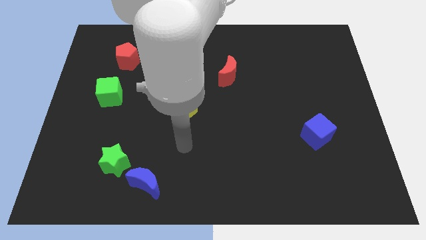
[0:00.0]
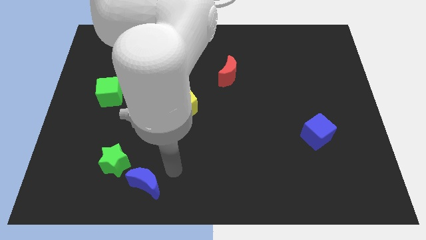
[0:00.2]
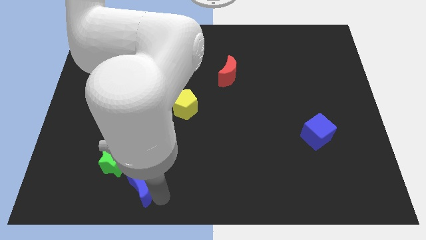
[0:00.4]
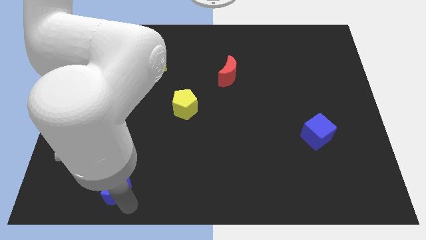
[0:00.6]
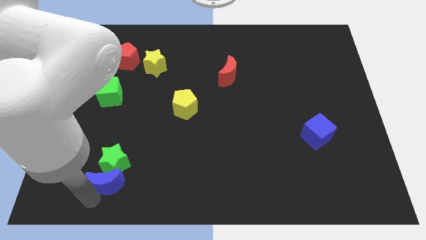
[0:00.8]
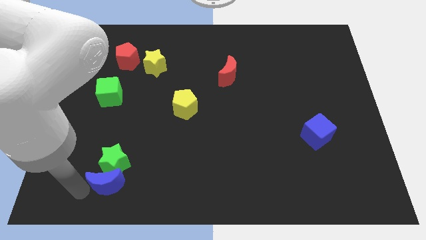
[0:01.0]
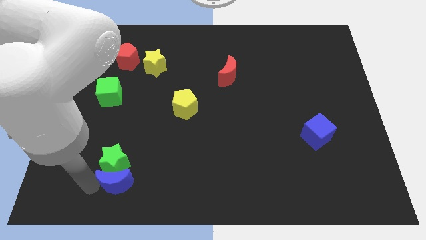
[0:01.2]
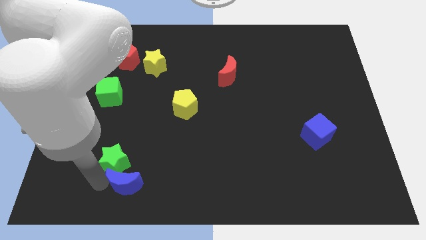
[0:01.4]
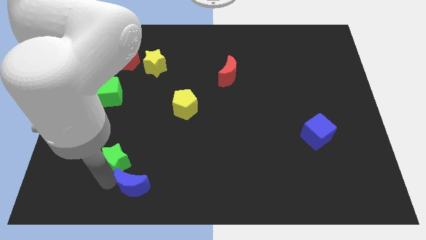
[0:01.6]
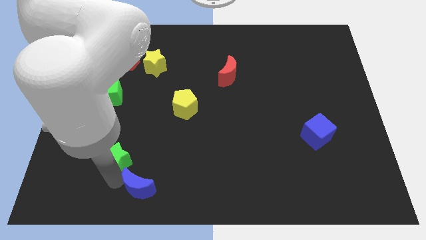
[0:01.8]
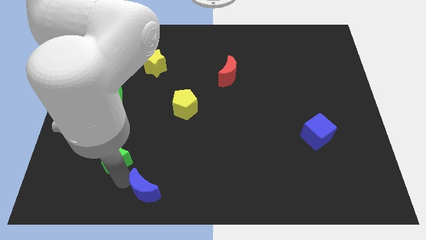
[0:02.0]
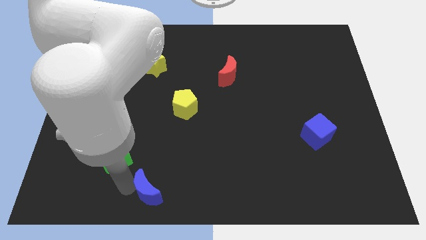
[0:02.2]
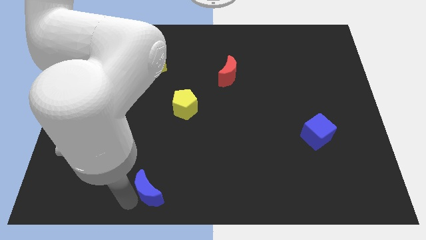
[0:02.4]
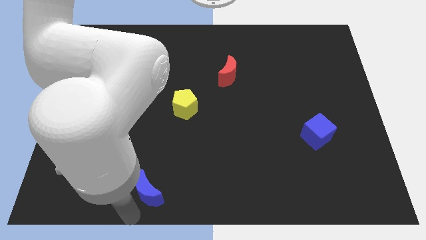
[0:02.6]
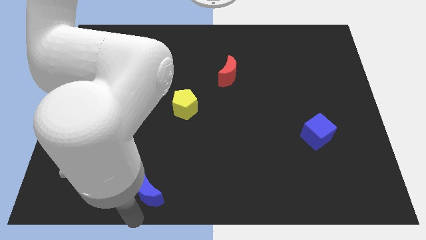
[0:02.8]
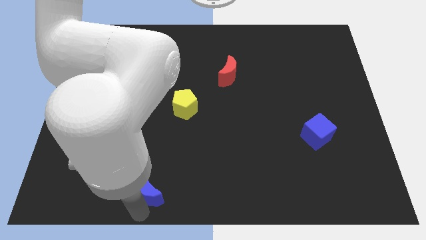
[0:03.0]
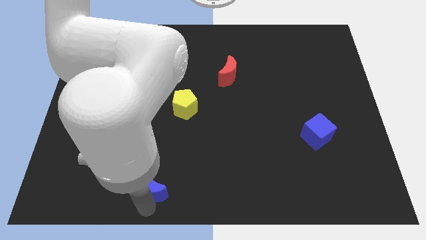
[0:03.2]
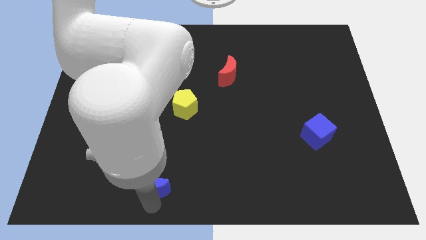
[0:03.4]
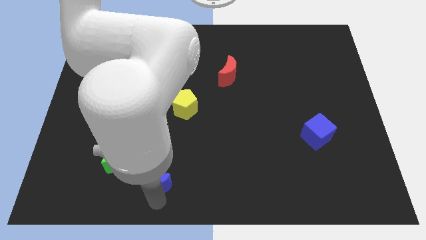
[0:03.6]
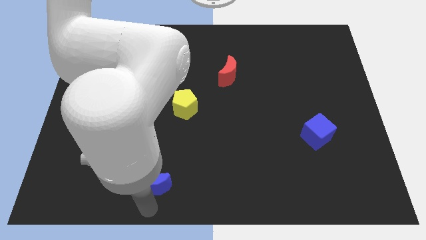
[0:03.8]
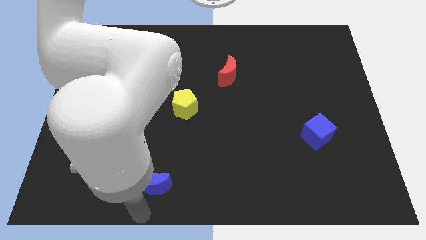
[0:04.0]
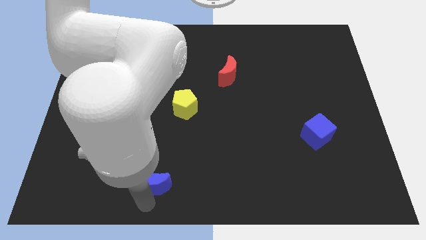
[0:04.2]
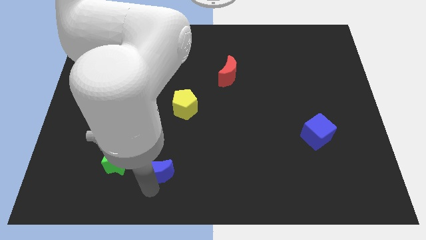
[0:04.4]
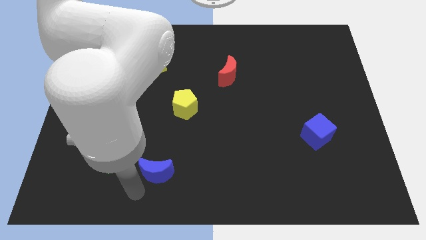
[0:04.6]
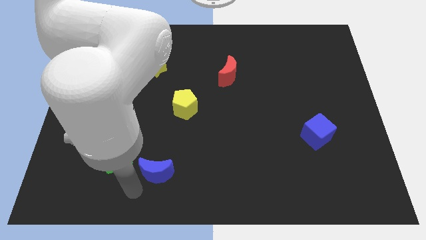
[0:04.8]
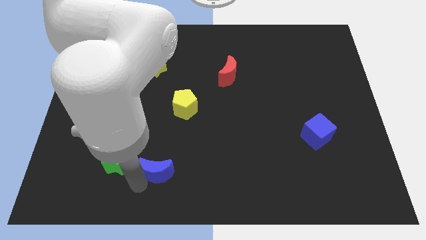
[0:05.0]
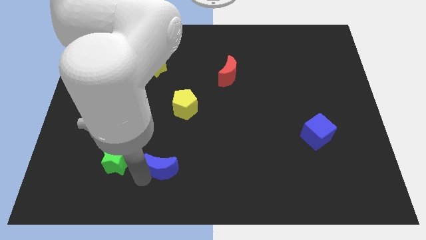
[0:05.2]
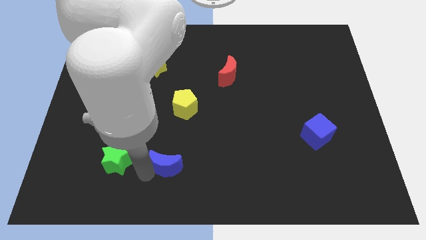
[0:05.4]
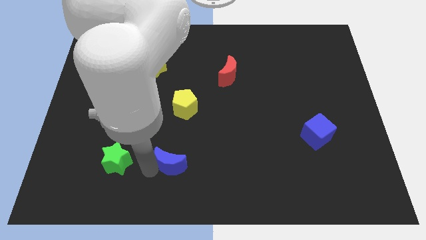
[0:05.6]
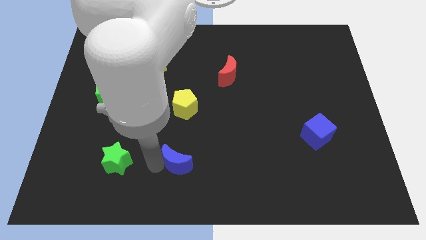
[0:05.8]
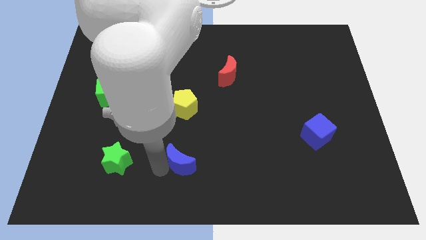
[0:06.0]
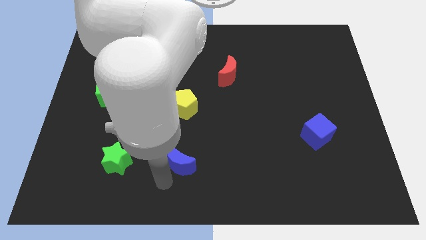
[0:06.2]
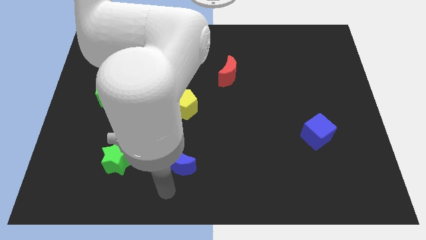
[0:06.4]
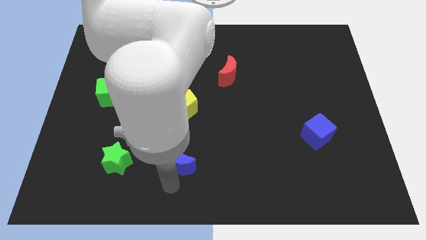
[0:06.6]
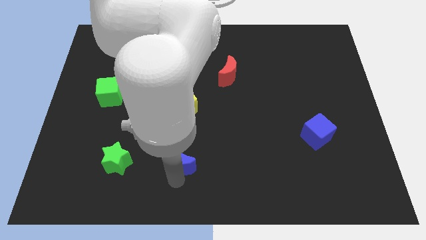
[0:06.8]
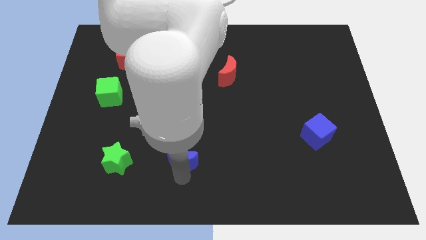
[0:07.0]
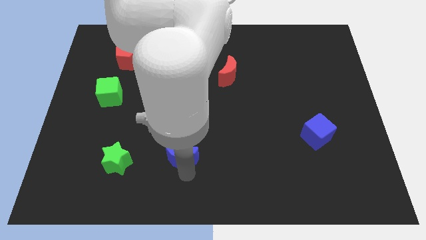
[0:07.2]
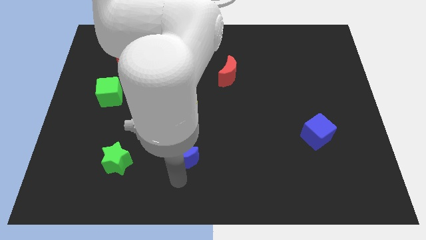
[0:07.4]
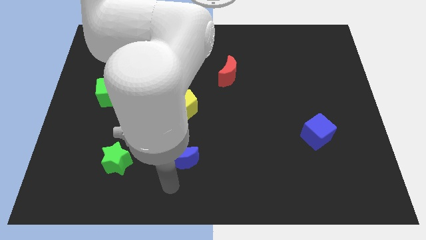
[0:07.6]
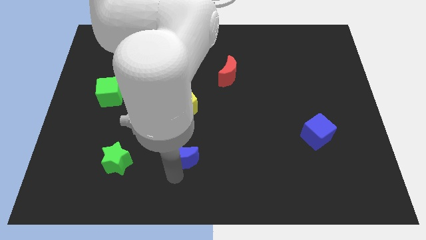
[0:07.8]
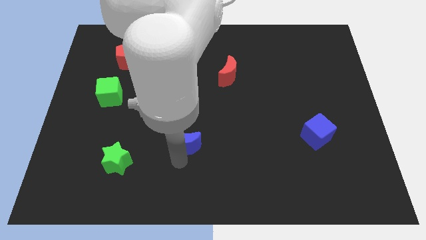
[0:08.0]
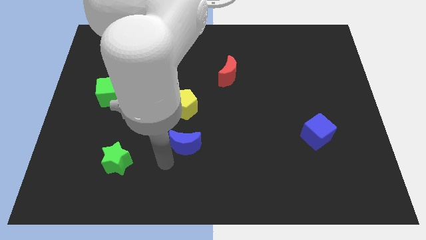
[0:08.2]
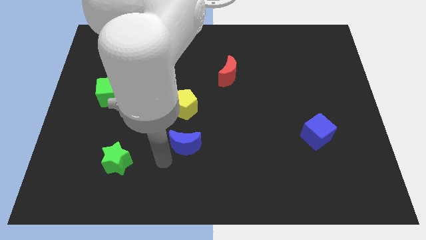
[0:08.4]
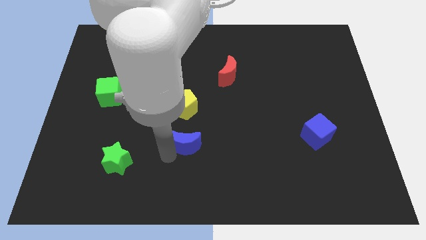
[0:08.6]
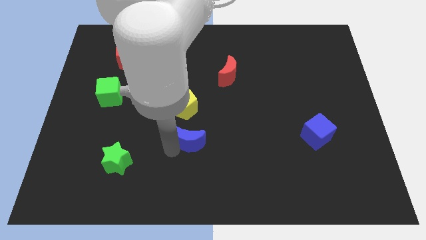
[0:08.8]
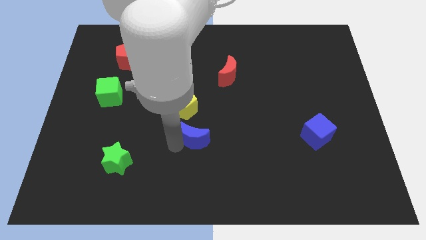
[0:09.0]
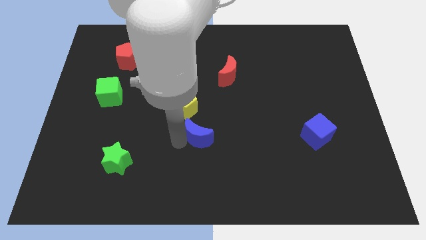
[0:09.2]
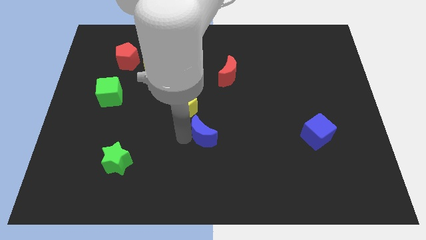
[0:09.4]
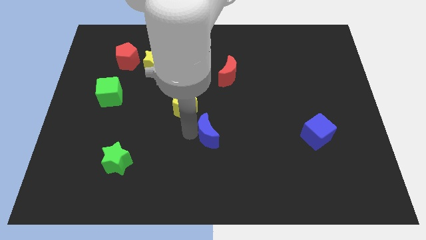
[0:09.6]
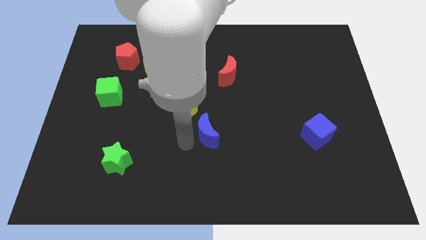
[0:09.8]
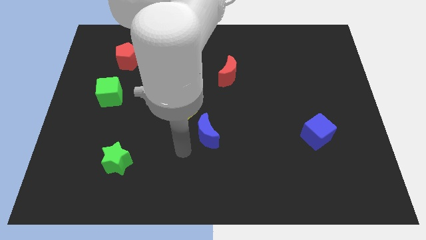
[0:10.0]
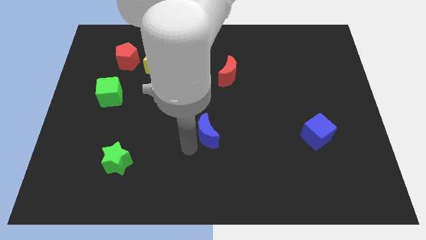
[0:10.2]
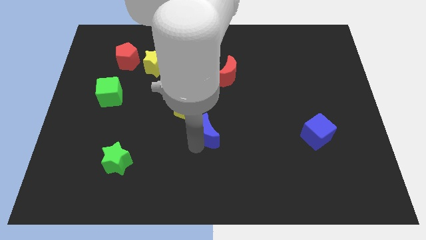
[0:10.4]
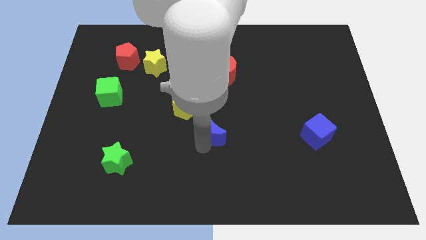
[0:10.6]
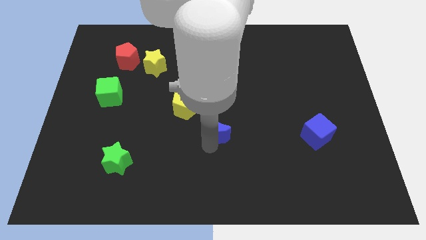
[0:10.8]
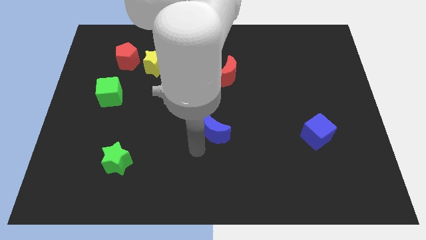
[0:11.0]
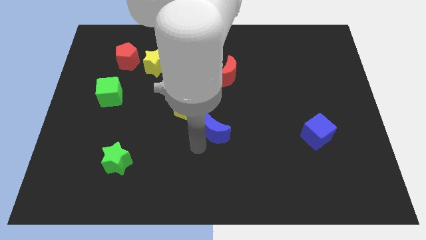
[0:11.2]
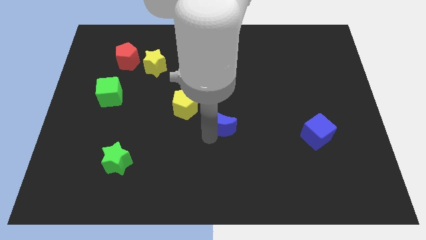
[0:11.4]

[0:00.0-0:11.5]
slide the blue moon upwards and to the right diagonally

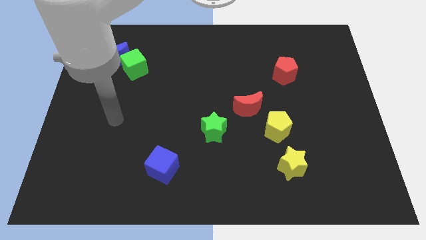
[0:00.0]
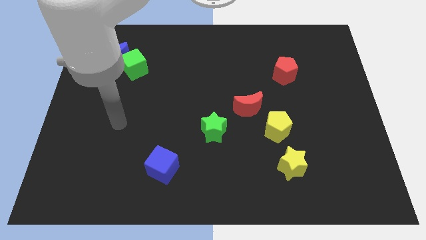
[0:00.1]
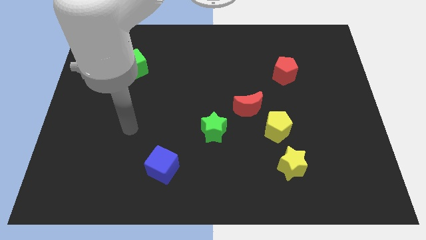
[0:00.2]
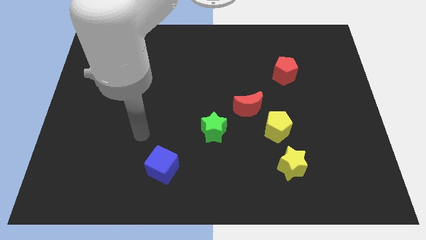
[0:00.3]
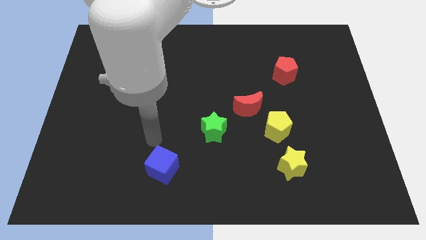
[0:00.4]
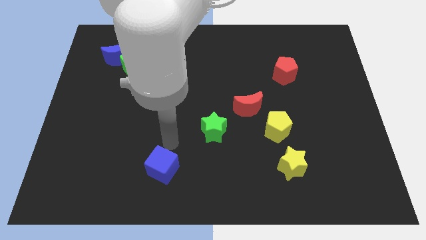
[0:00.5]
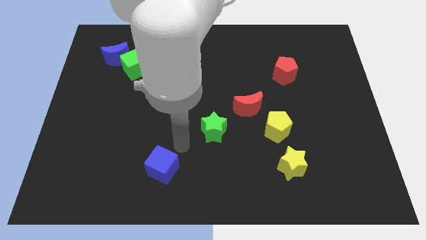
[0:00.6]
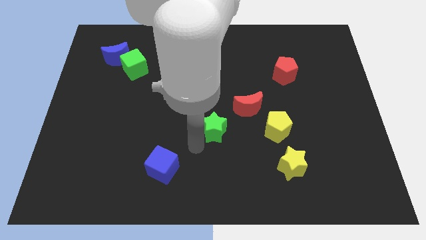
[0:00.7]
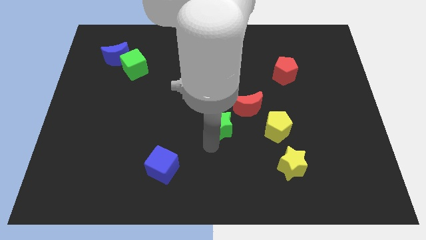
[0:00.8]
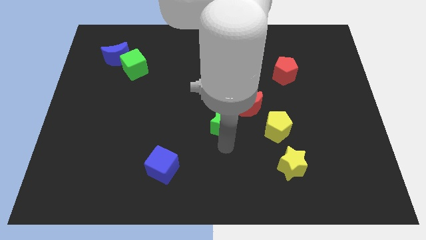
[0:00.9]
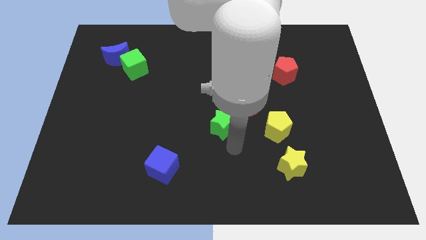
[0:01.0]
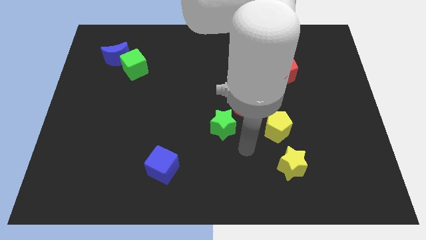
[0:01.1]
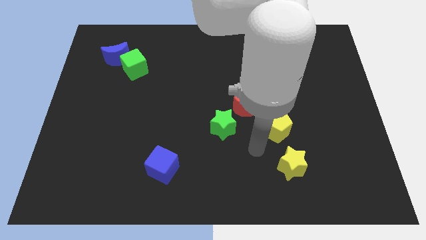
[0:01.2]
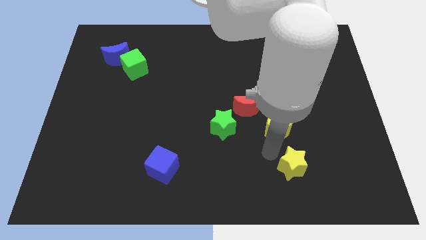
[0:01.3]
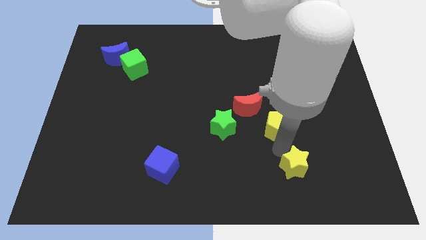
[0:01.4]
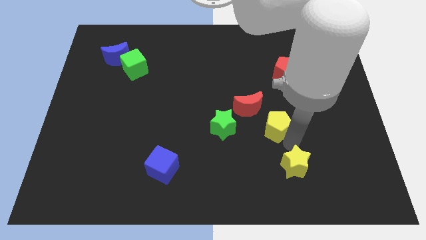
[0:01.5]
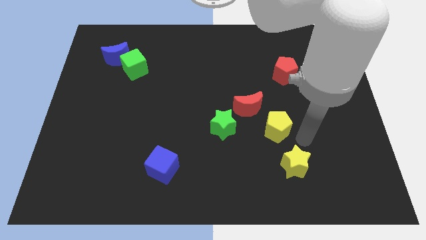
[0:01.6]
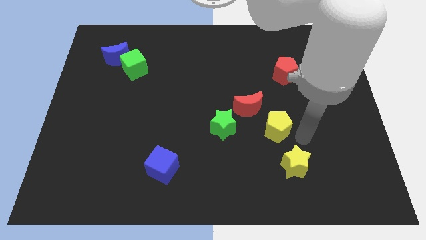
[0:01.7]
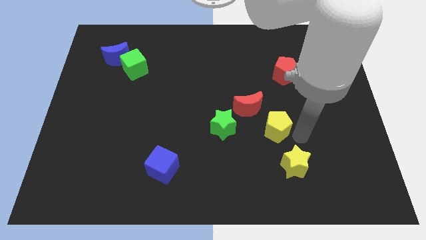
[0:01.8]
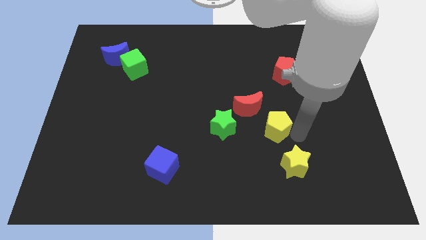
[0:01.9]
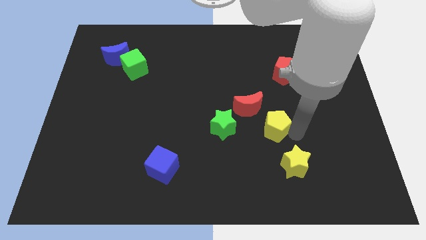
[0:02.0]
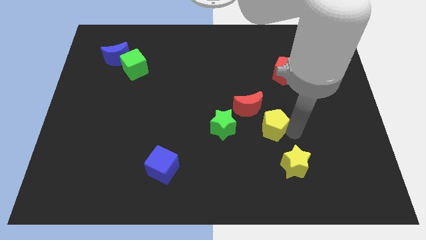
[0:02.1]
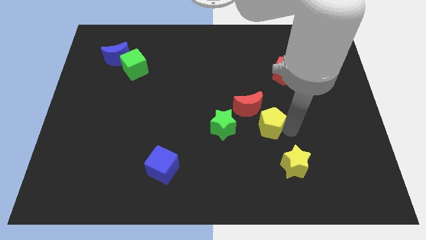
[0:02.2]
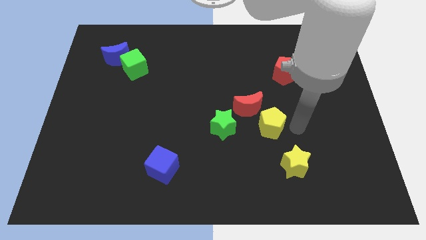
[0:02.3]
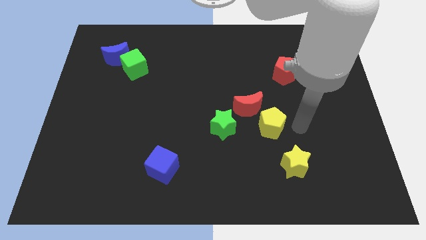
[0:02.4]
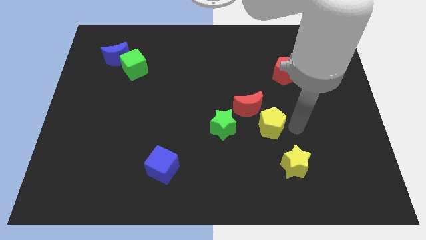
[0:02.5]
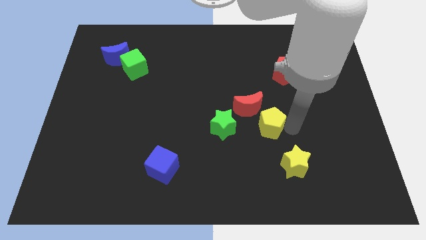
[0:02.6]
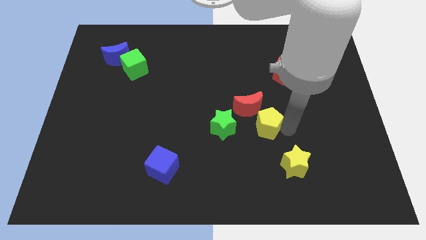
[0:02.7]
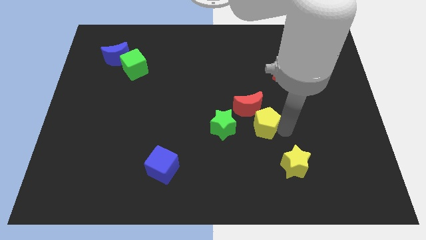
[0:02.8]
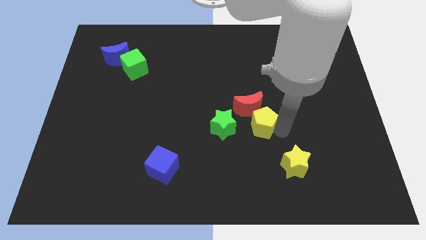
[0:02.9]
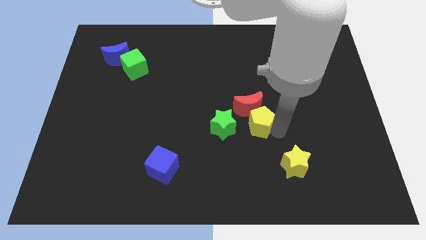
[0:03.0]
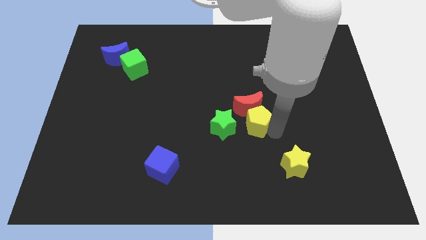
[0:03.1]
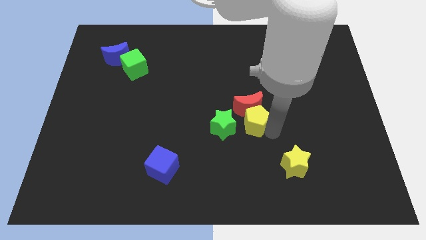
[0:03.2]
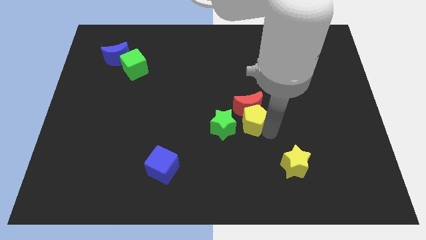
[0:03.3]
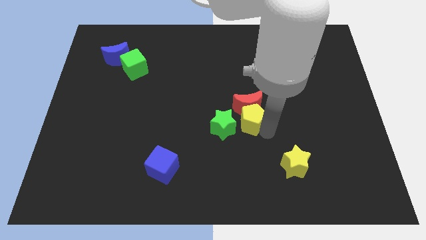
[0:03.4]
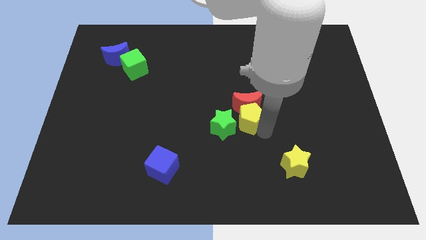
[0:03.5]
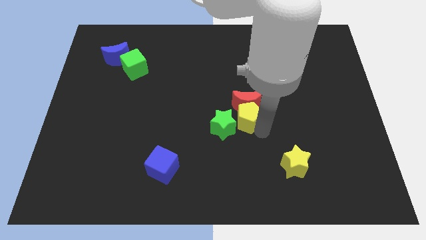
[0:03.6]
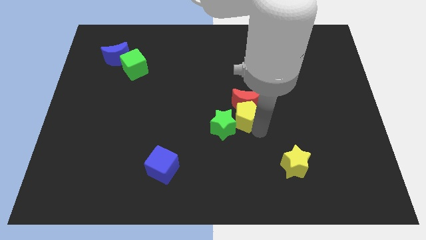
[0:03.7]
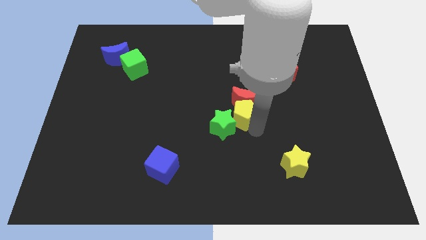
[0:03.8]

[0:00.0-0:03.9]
move the yellow pentagon a bit left
